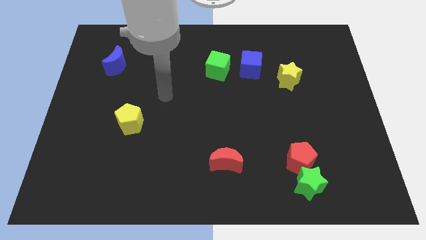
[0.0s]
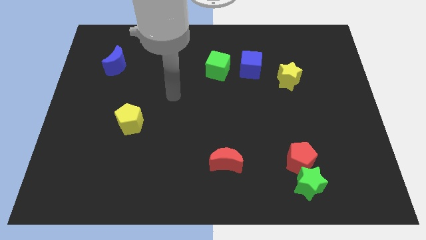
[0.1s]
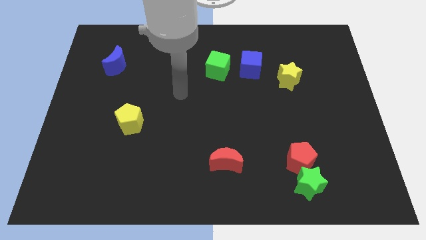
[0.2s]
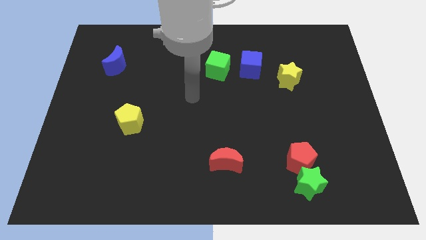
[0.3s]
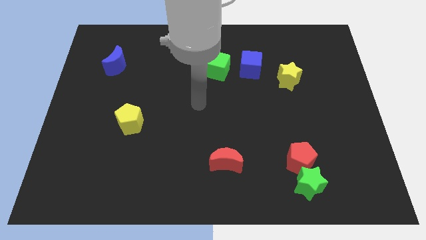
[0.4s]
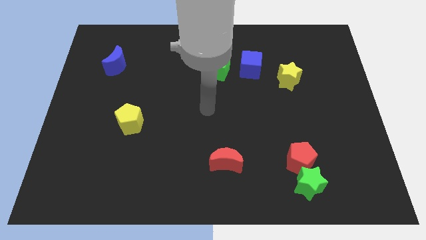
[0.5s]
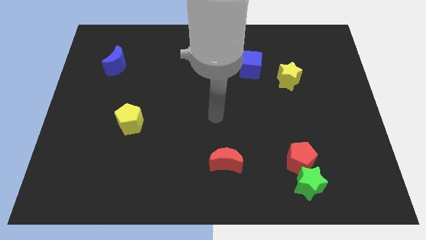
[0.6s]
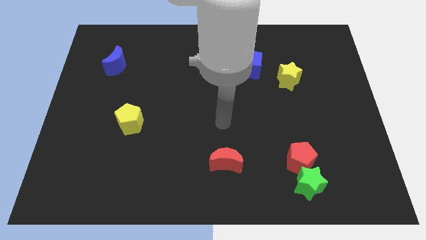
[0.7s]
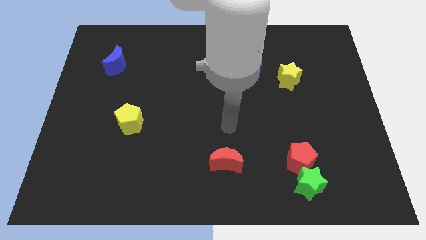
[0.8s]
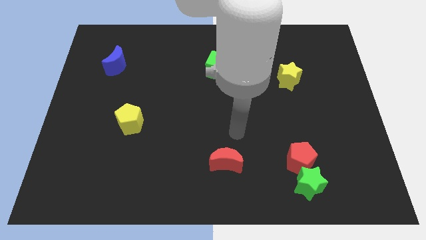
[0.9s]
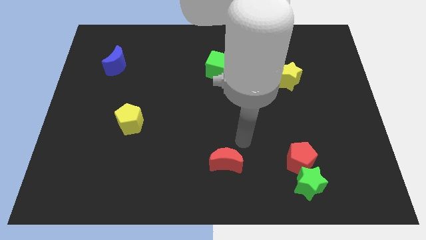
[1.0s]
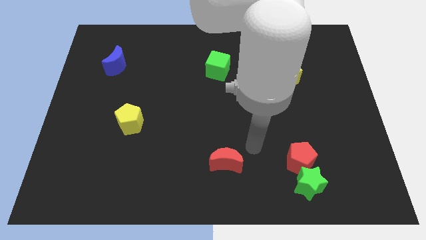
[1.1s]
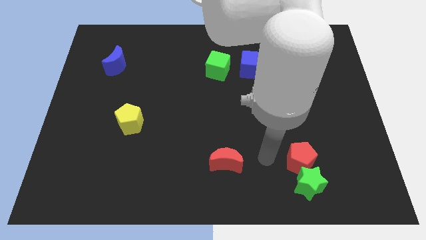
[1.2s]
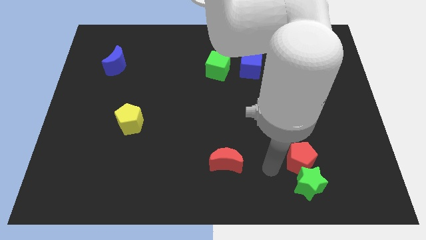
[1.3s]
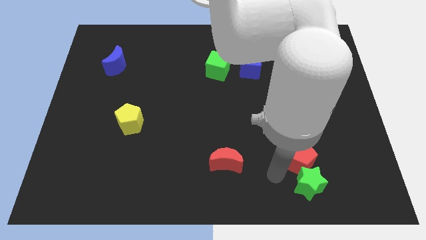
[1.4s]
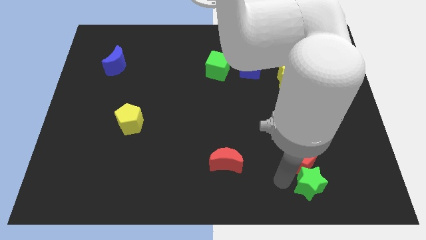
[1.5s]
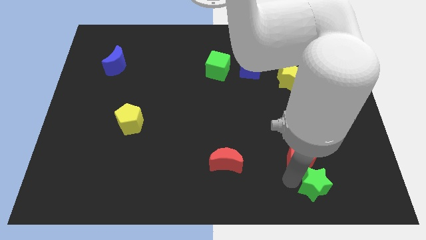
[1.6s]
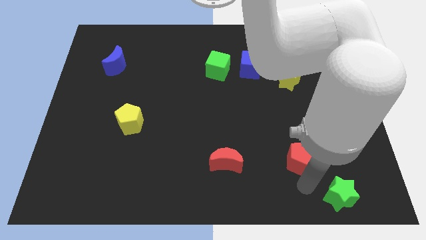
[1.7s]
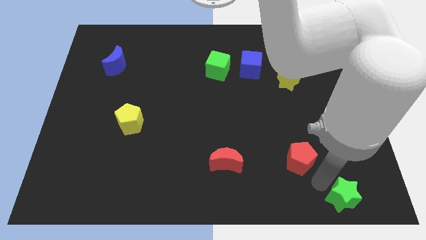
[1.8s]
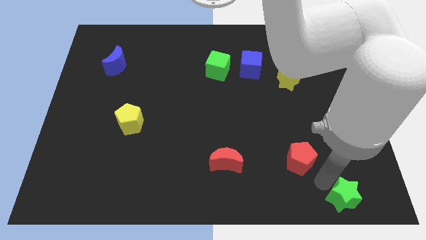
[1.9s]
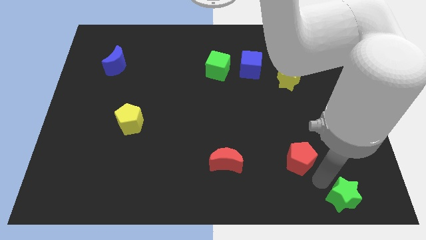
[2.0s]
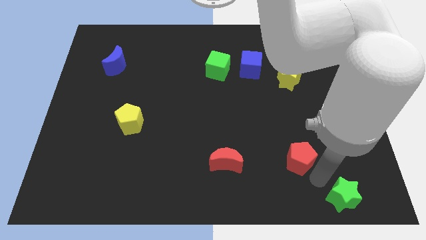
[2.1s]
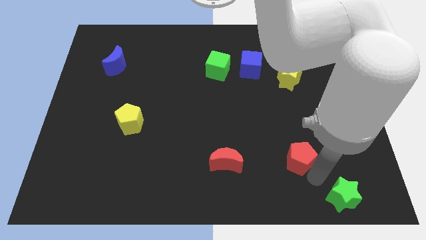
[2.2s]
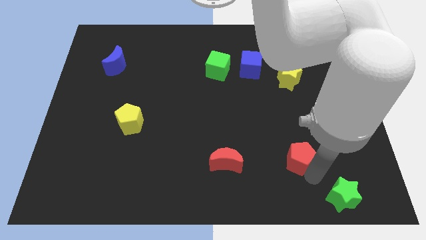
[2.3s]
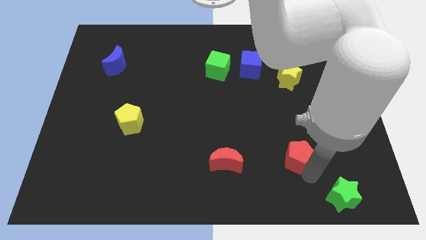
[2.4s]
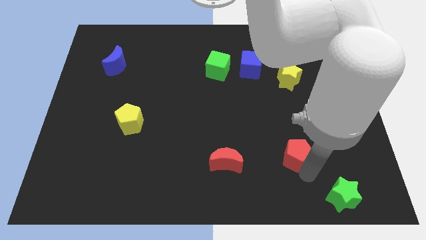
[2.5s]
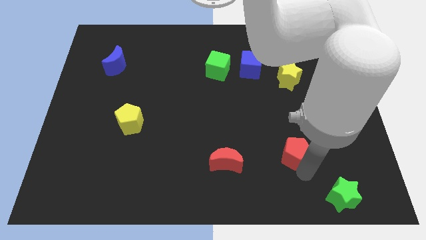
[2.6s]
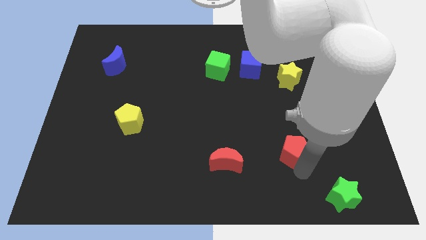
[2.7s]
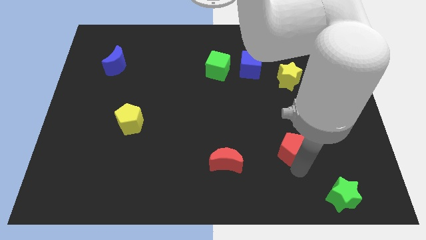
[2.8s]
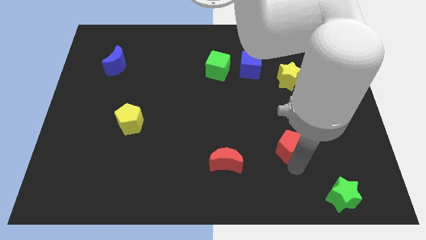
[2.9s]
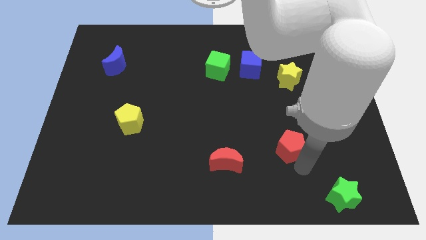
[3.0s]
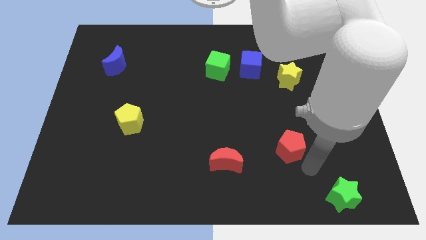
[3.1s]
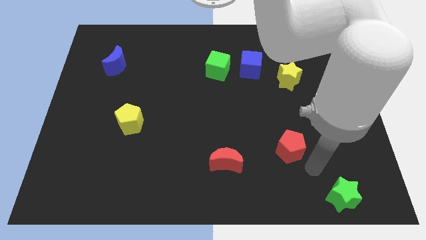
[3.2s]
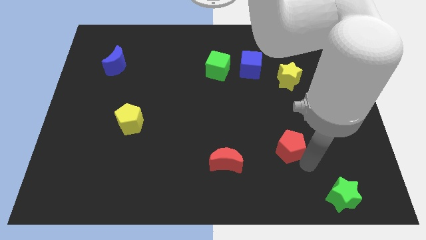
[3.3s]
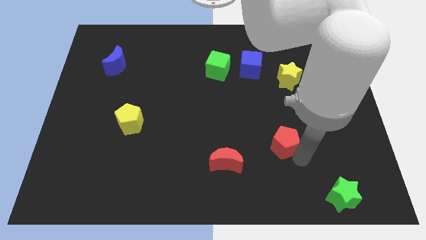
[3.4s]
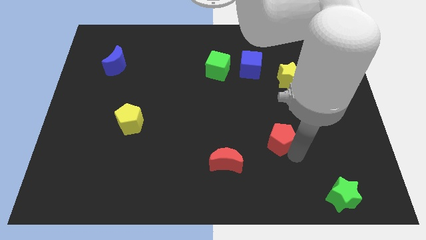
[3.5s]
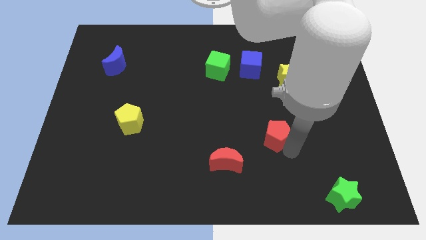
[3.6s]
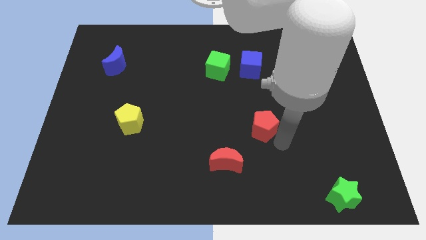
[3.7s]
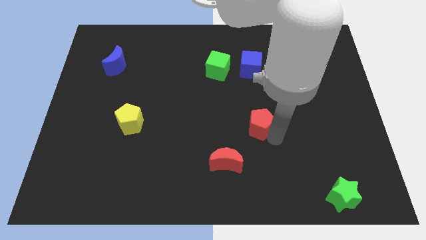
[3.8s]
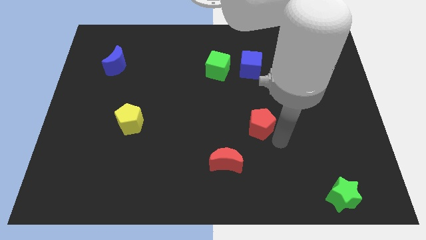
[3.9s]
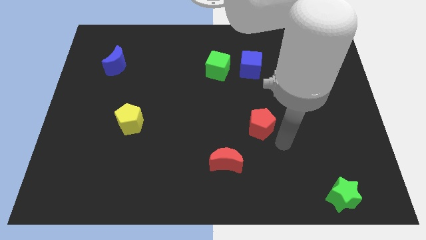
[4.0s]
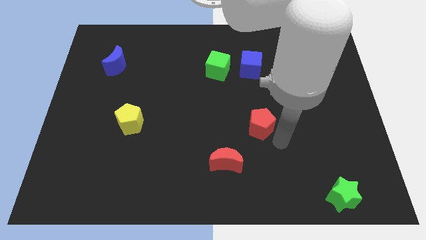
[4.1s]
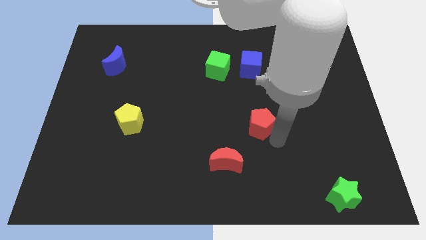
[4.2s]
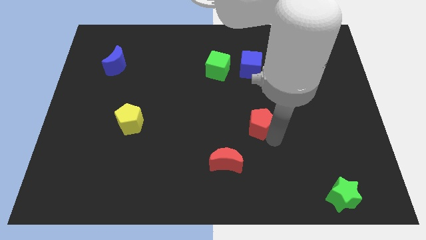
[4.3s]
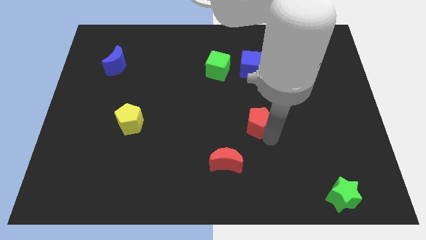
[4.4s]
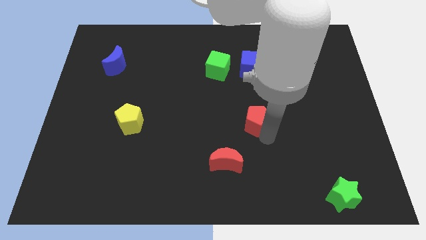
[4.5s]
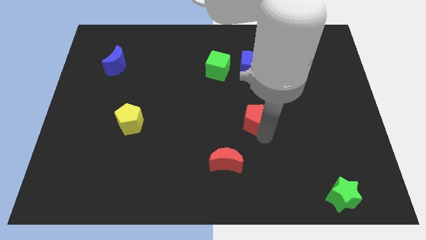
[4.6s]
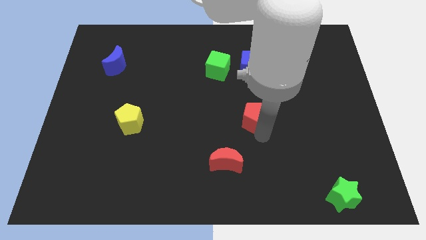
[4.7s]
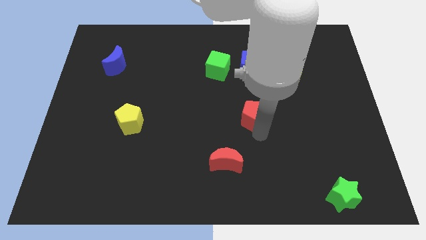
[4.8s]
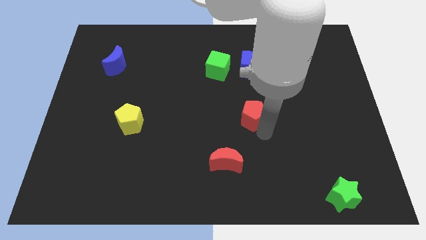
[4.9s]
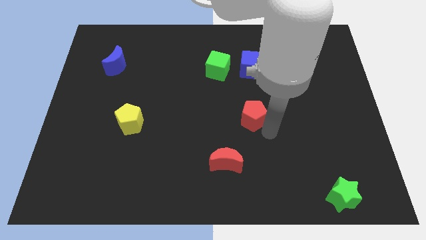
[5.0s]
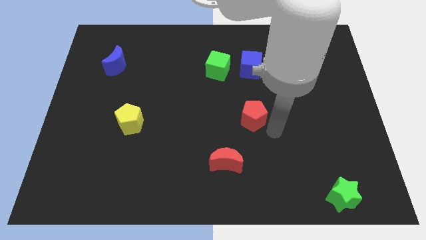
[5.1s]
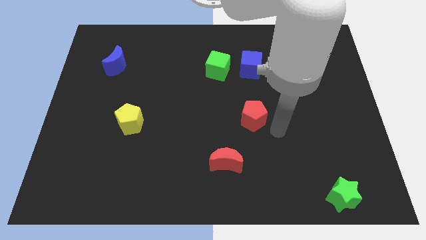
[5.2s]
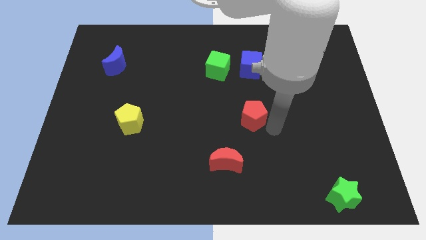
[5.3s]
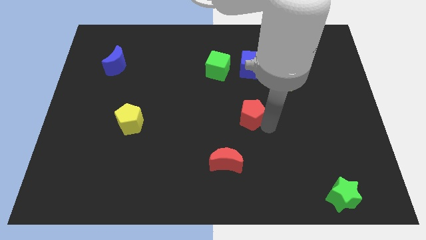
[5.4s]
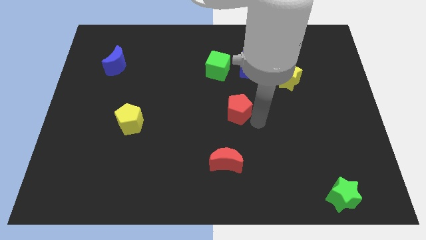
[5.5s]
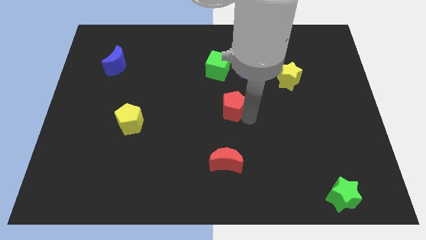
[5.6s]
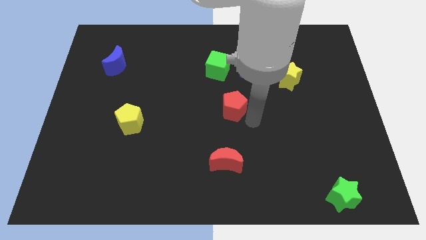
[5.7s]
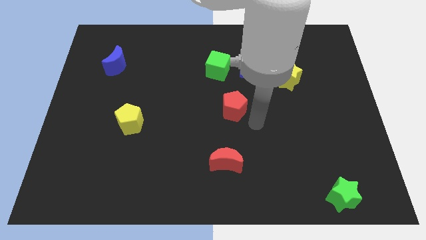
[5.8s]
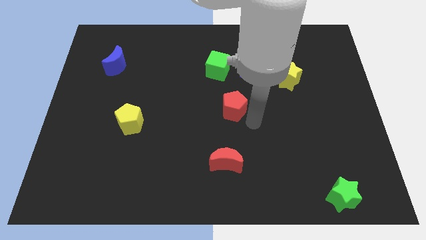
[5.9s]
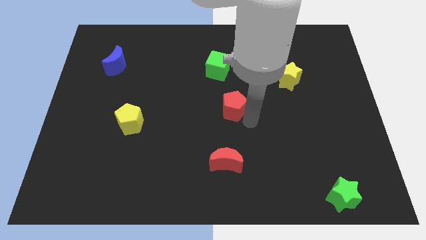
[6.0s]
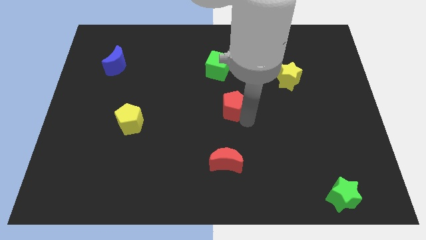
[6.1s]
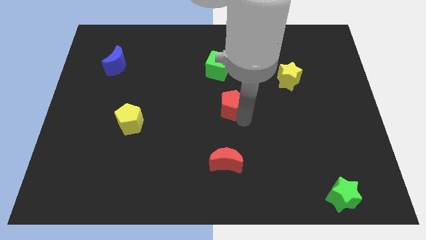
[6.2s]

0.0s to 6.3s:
move the red pentagon diagonally upwards and left

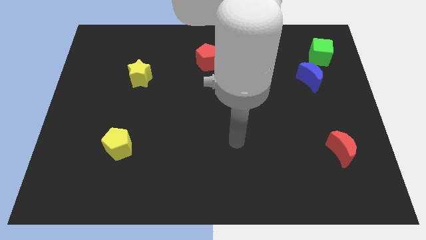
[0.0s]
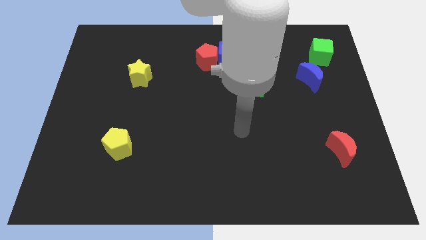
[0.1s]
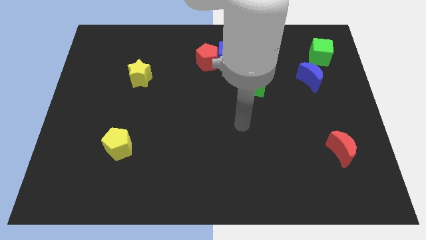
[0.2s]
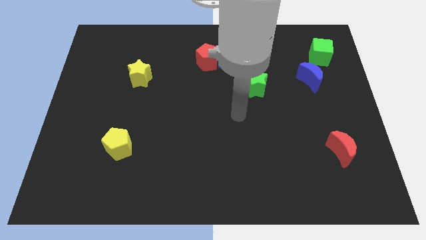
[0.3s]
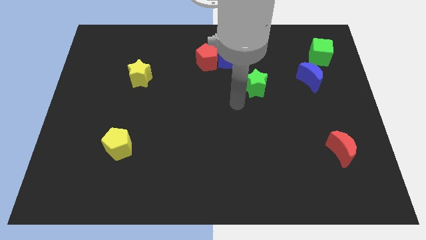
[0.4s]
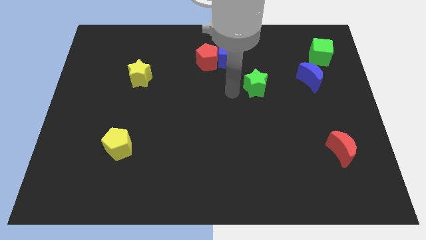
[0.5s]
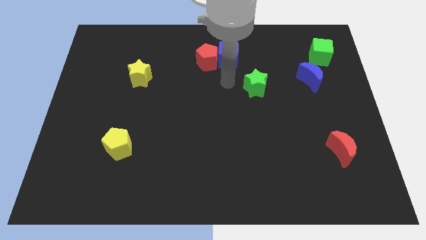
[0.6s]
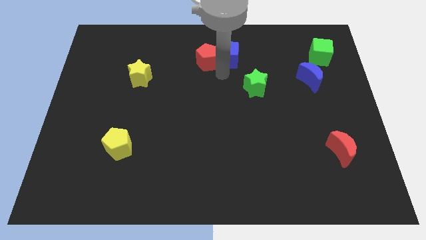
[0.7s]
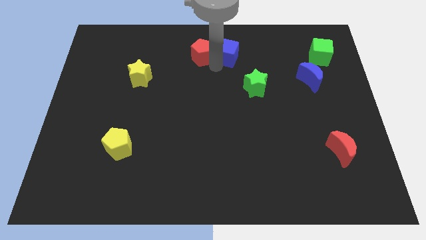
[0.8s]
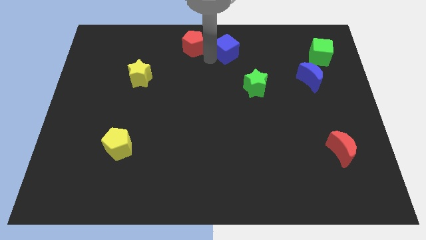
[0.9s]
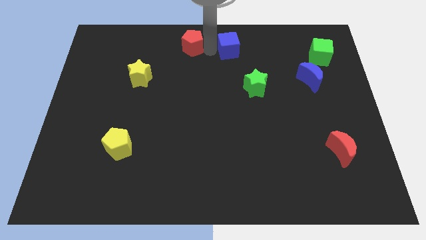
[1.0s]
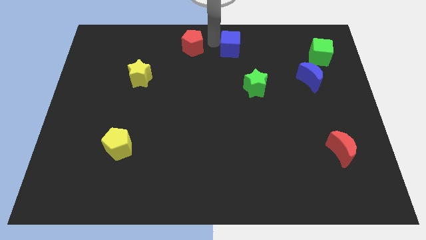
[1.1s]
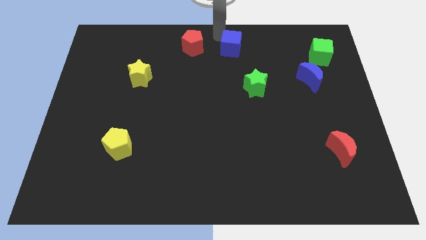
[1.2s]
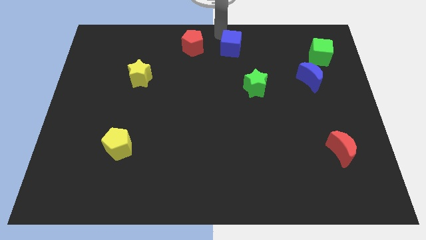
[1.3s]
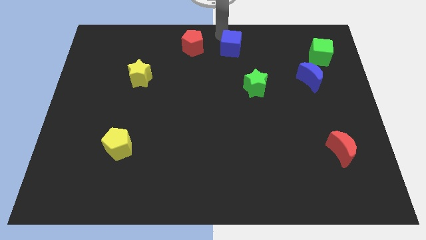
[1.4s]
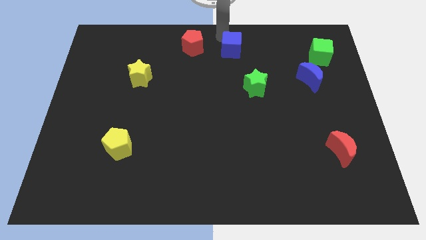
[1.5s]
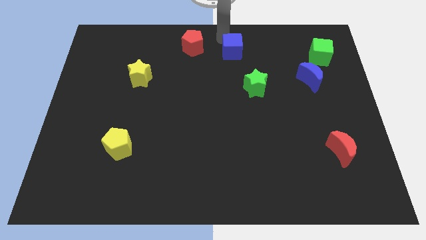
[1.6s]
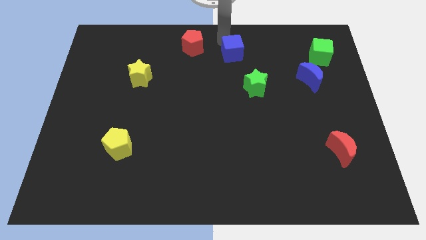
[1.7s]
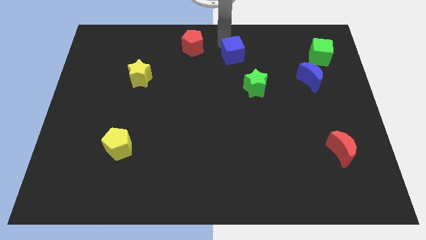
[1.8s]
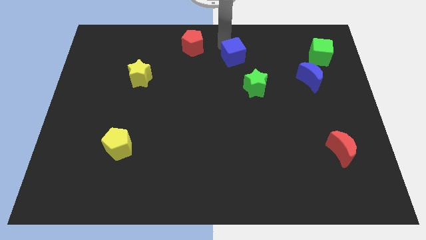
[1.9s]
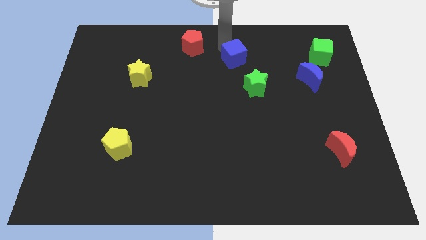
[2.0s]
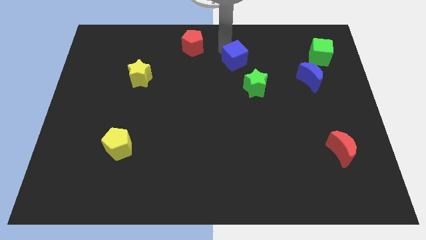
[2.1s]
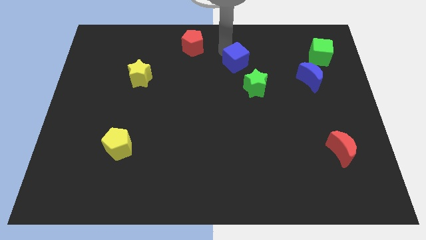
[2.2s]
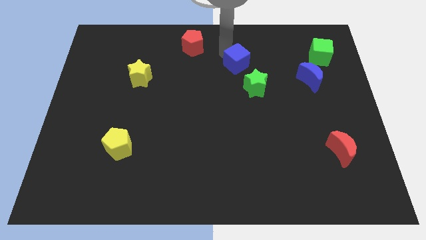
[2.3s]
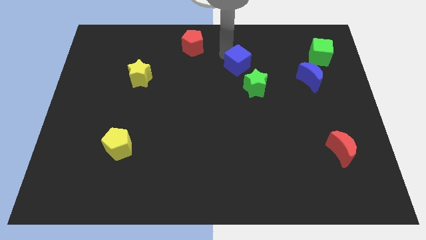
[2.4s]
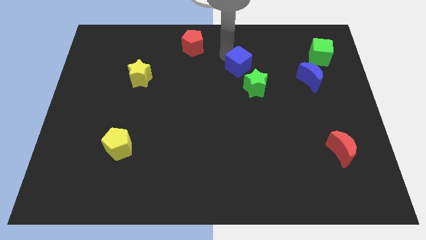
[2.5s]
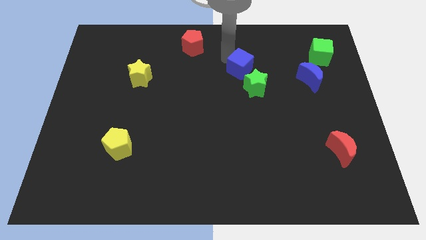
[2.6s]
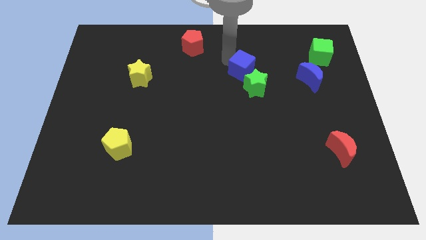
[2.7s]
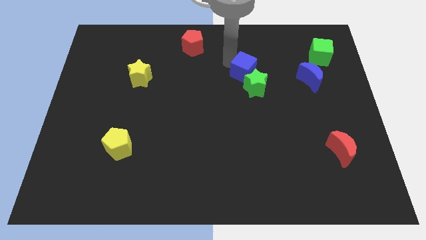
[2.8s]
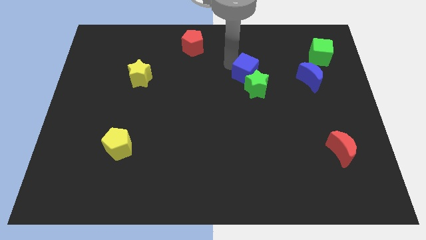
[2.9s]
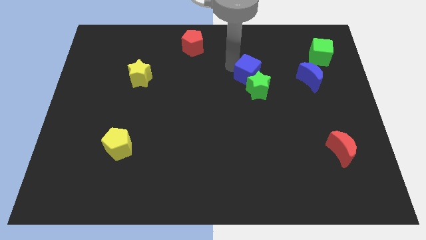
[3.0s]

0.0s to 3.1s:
slightly slide the blue cube downwards and then right
